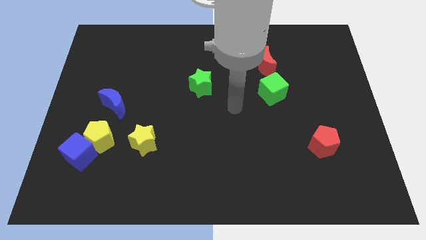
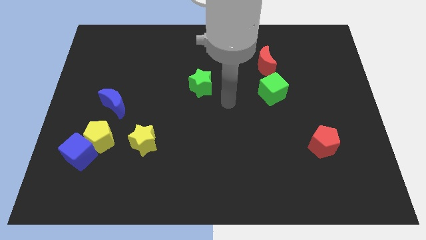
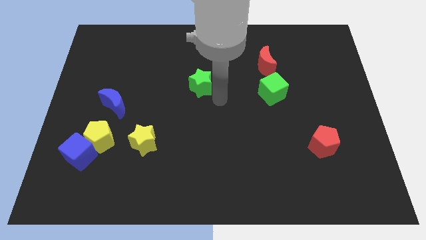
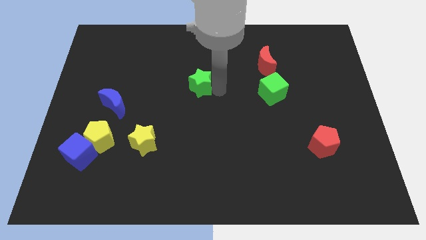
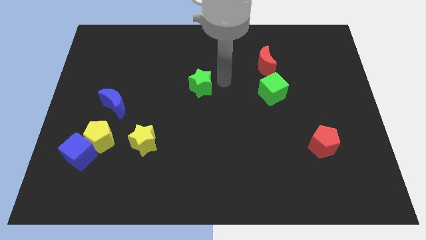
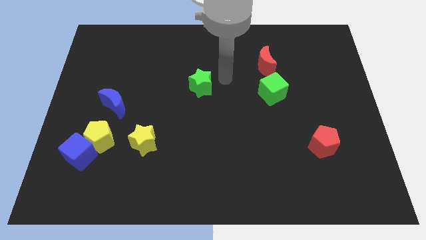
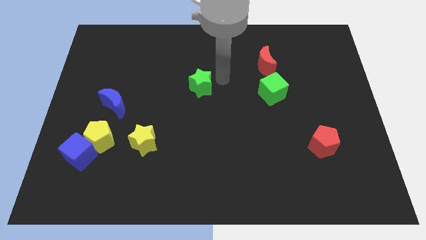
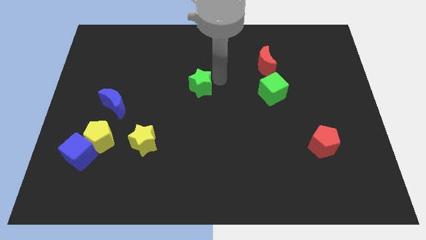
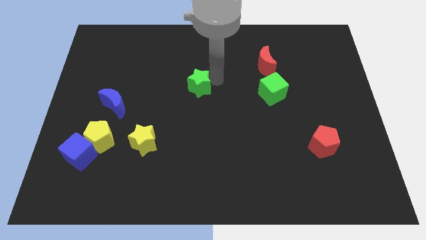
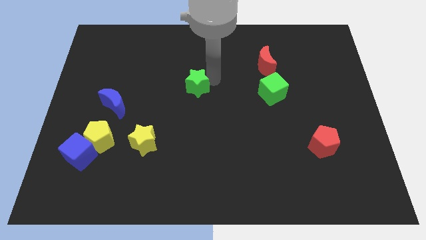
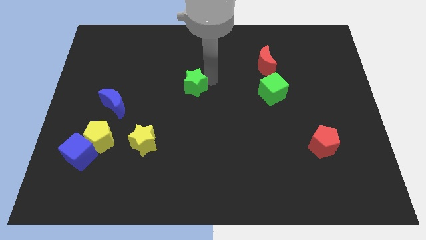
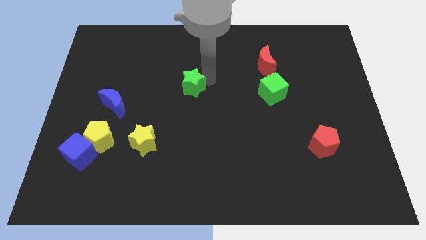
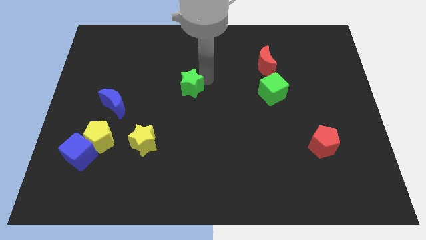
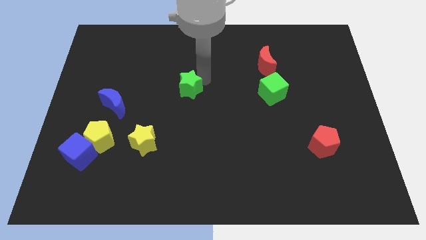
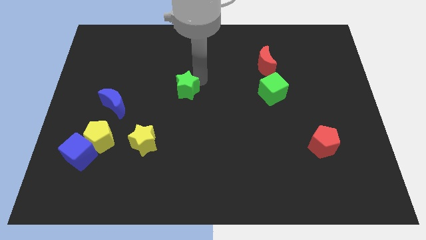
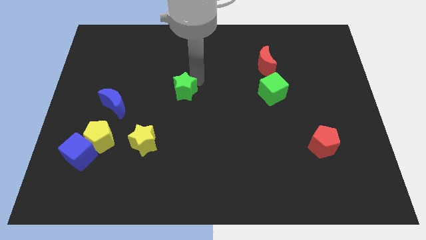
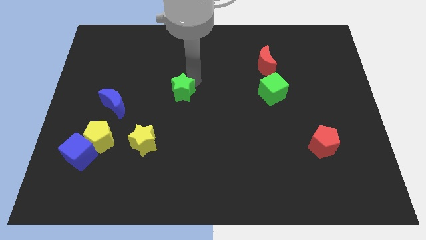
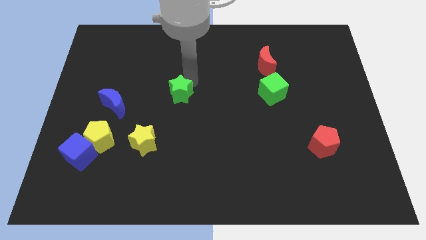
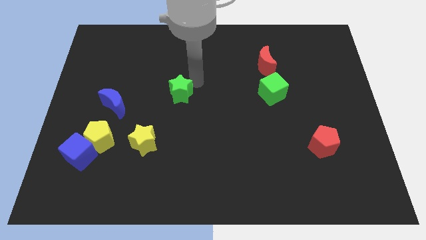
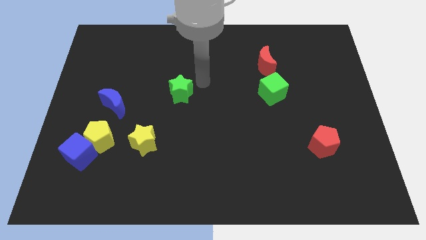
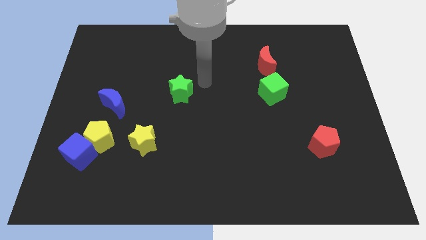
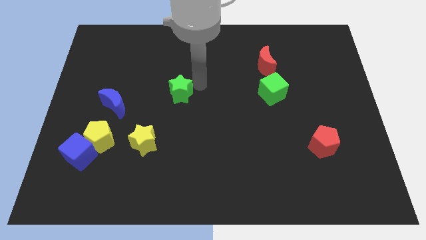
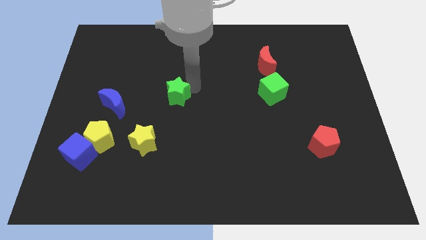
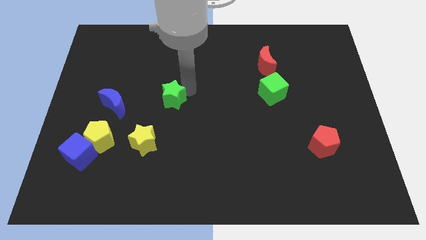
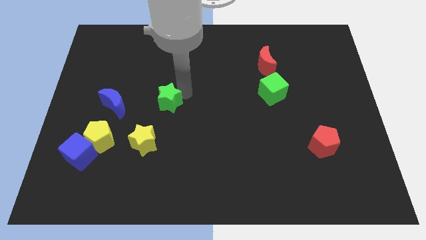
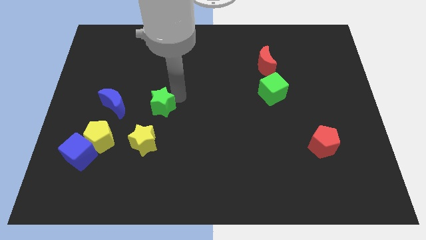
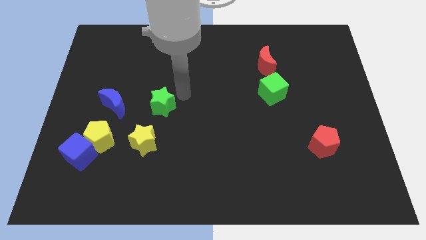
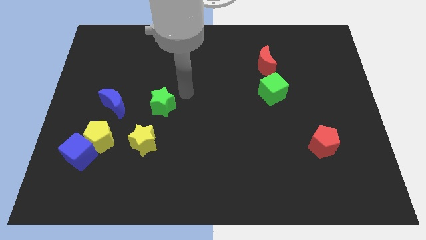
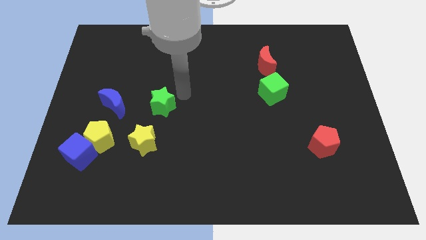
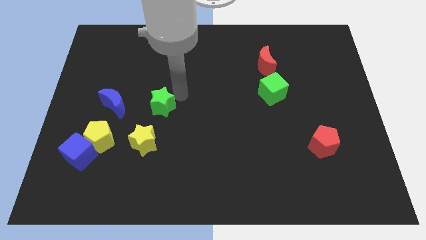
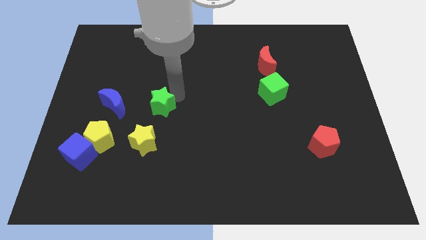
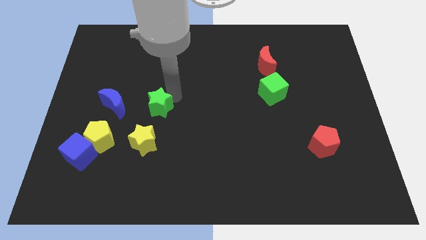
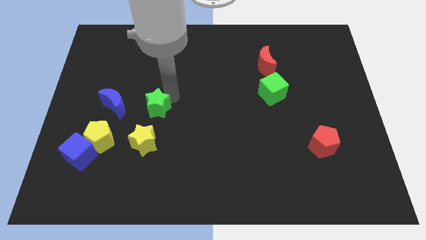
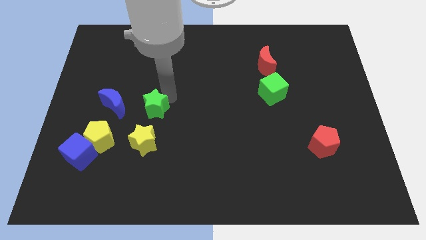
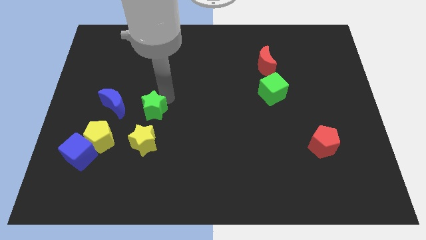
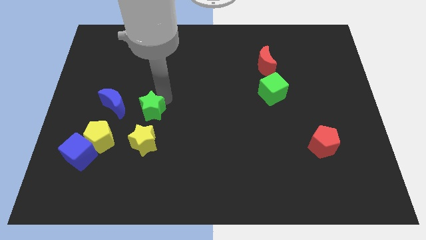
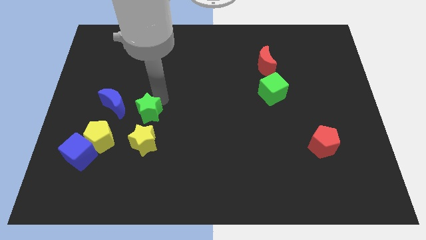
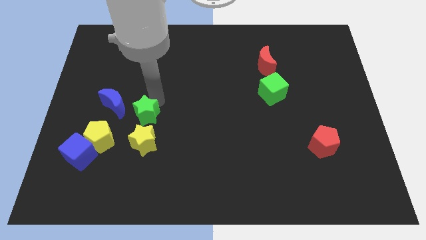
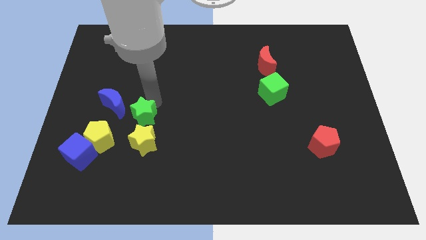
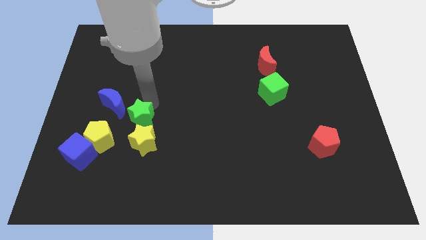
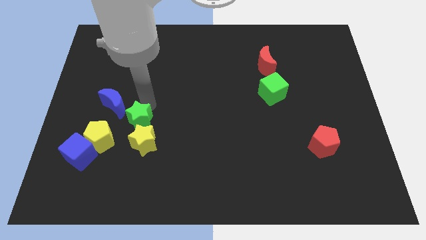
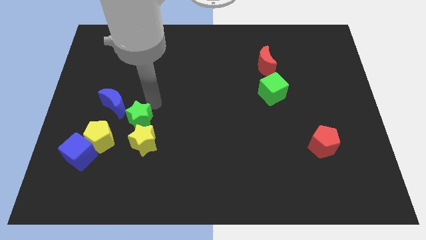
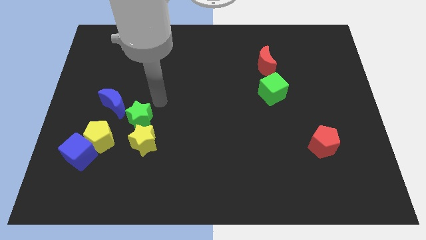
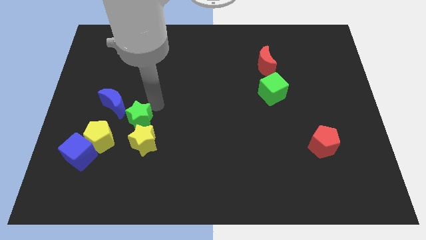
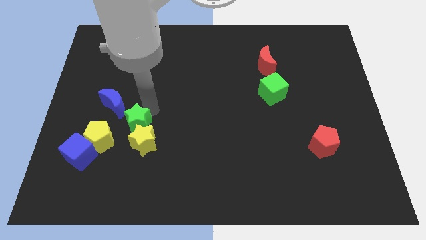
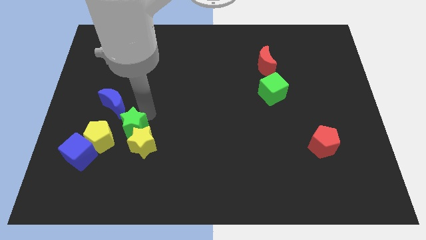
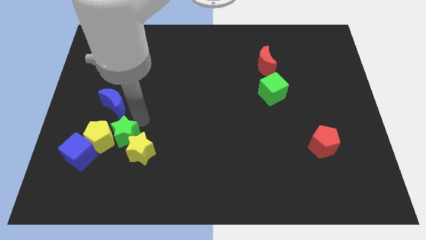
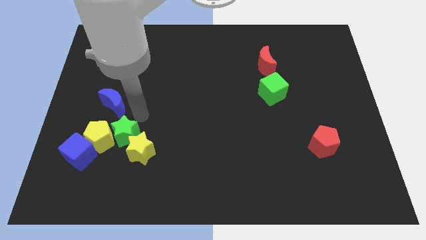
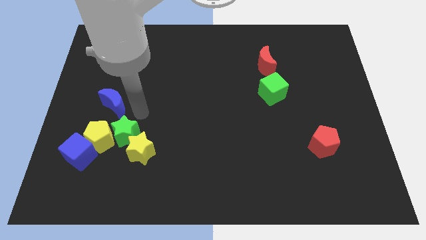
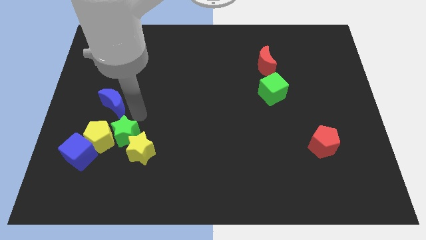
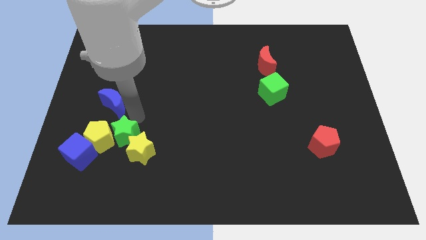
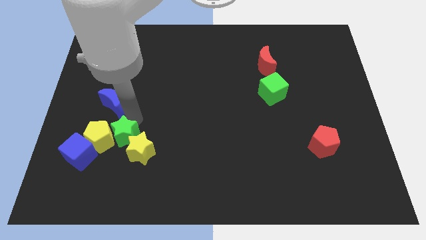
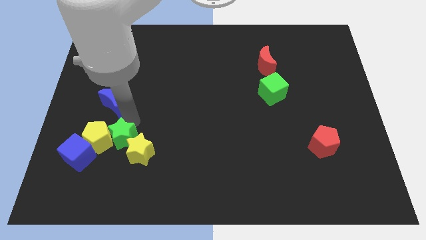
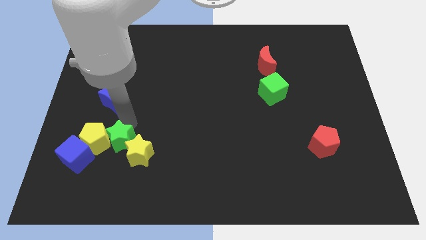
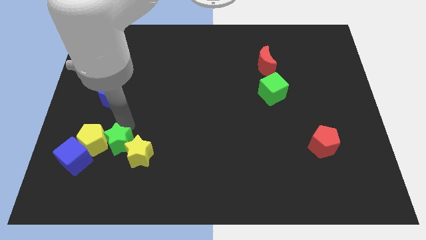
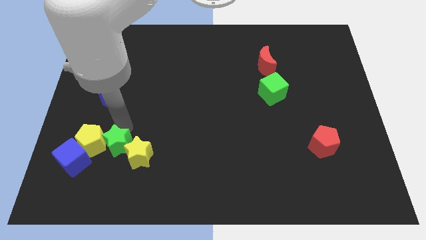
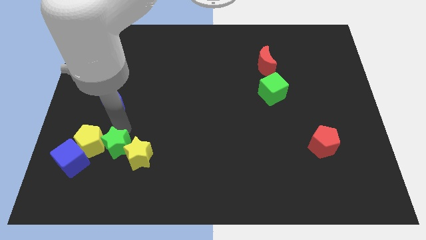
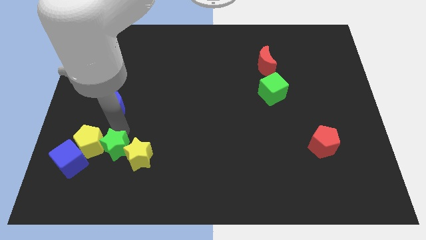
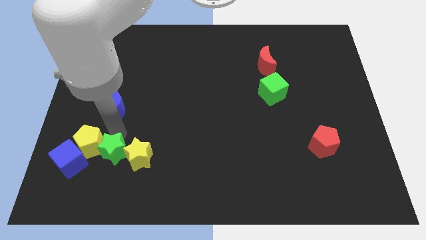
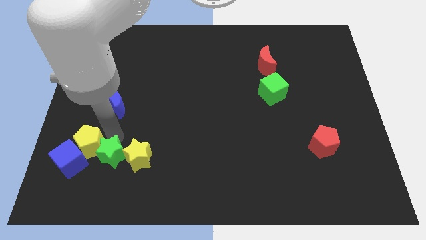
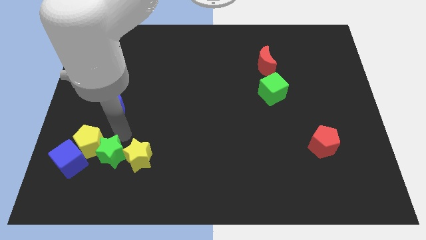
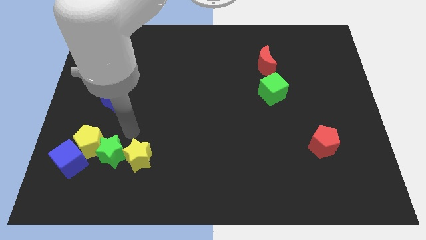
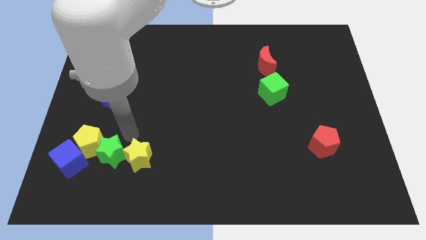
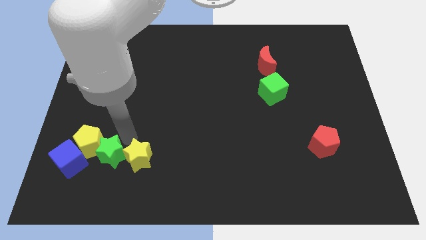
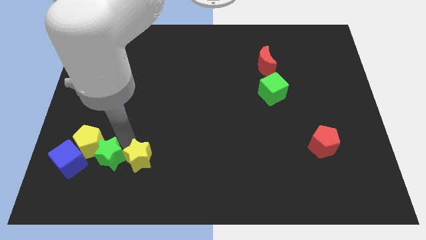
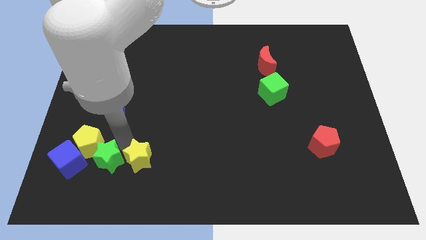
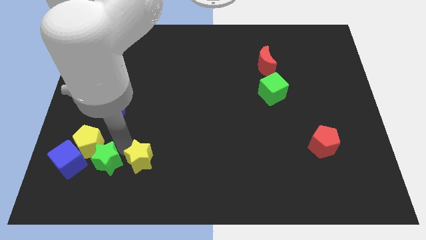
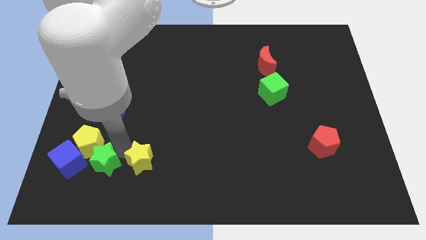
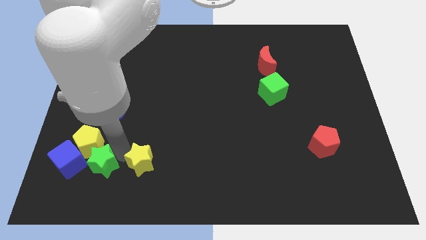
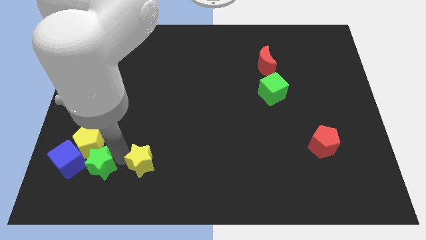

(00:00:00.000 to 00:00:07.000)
move the green star to the bottom right side of the blue cube
